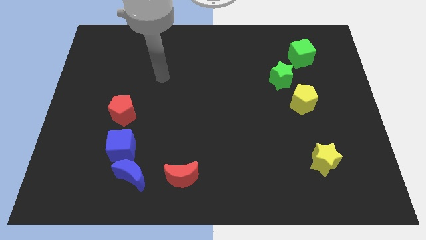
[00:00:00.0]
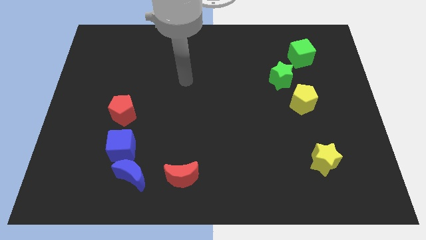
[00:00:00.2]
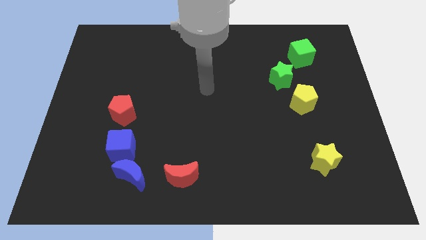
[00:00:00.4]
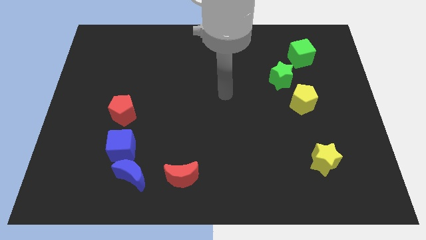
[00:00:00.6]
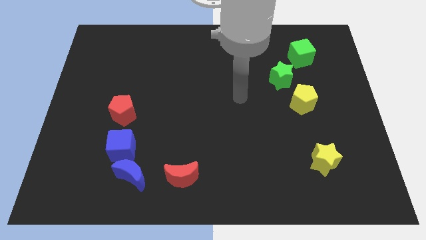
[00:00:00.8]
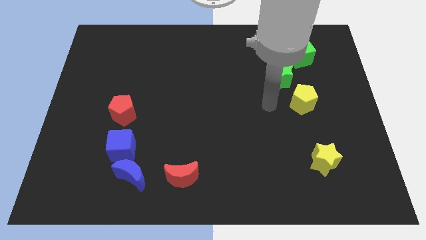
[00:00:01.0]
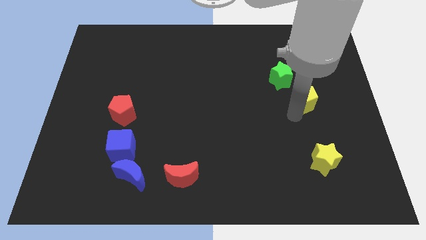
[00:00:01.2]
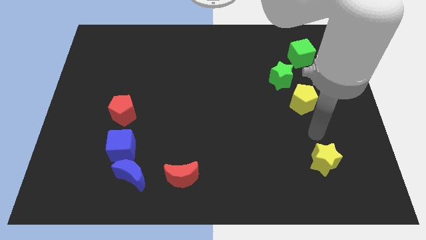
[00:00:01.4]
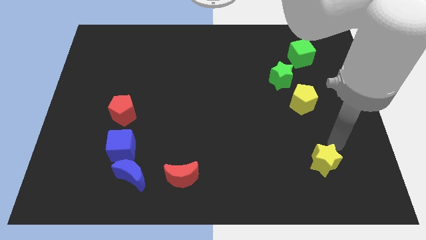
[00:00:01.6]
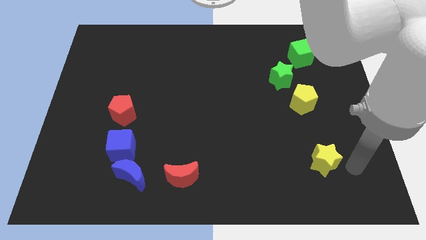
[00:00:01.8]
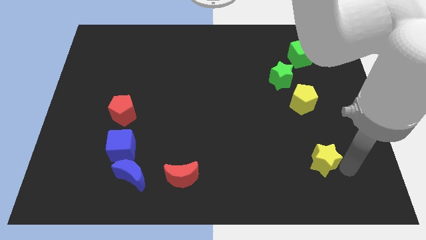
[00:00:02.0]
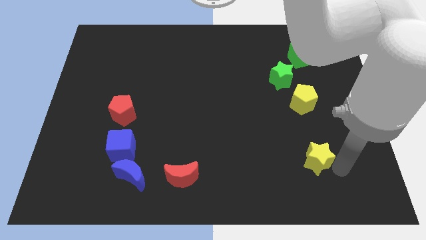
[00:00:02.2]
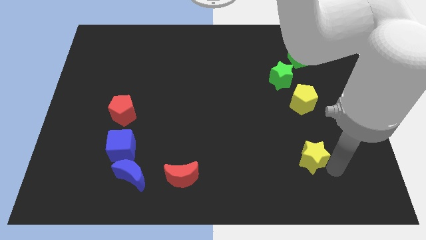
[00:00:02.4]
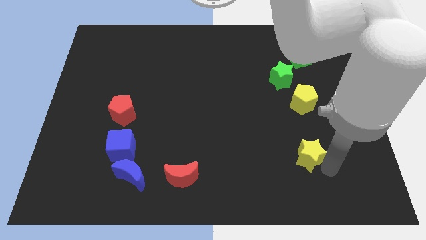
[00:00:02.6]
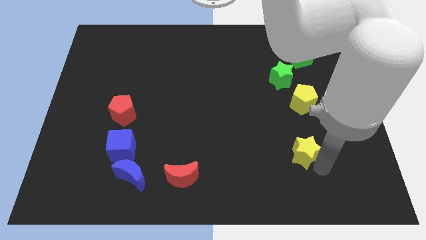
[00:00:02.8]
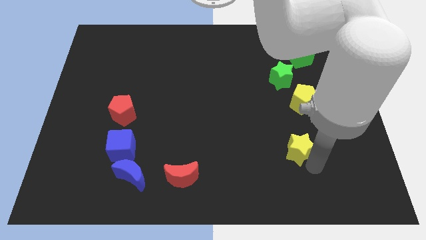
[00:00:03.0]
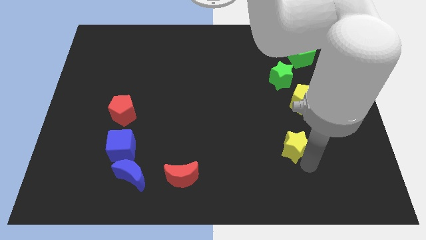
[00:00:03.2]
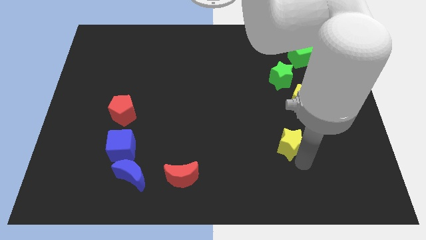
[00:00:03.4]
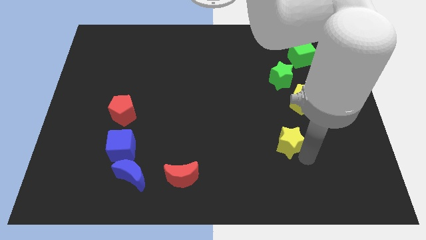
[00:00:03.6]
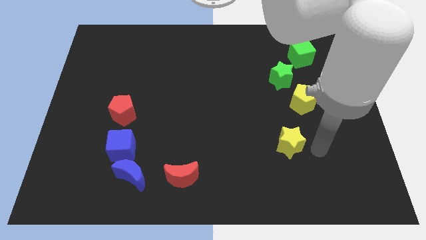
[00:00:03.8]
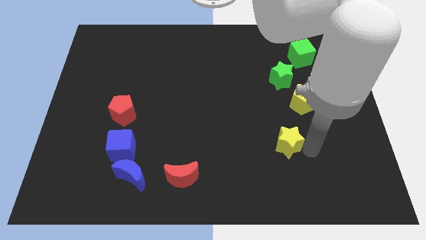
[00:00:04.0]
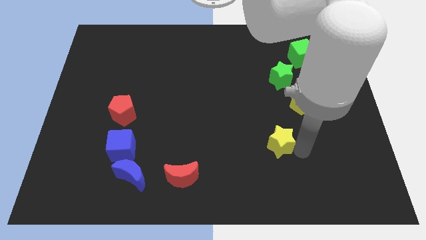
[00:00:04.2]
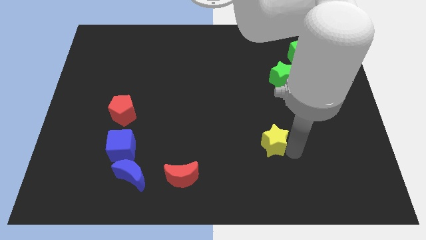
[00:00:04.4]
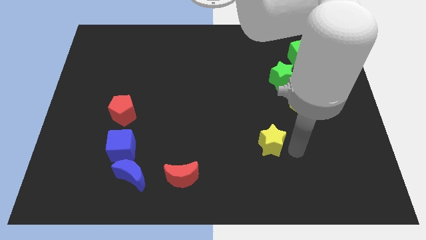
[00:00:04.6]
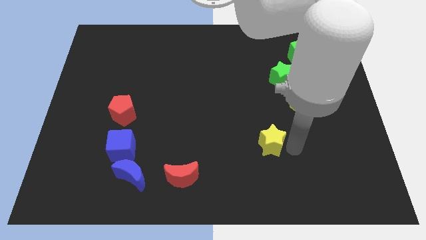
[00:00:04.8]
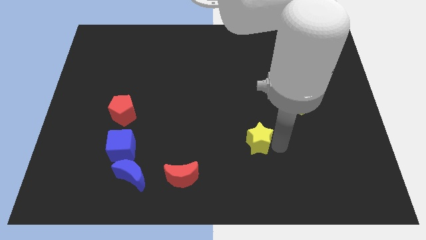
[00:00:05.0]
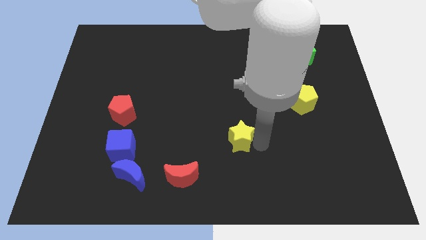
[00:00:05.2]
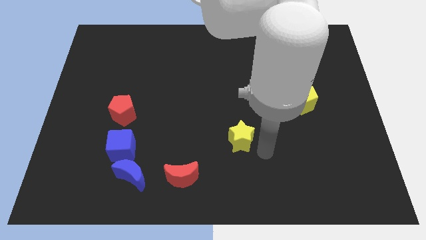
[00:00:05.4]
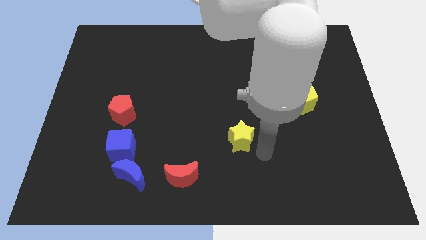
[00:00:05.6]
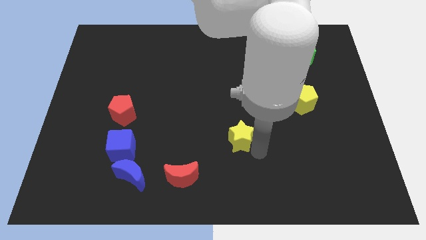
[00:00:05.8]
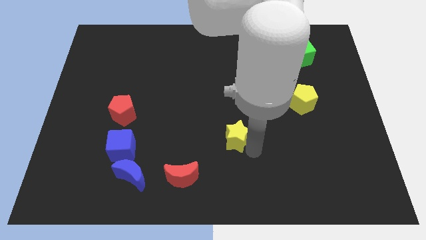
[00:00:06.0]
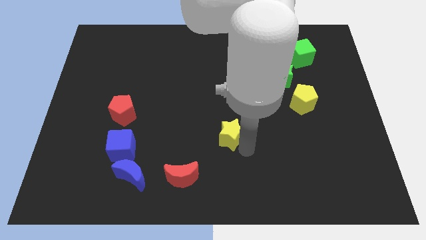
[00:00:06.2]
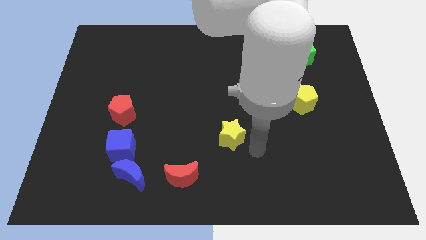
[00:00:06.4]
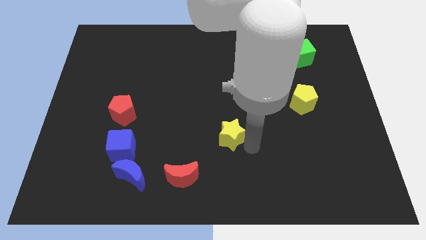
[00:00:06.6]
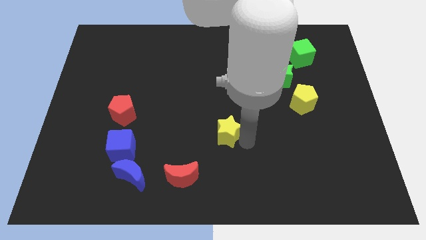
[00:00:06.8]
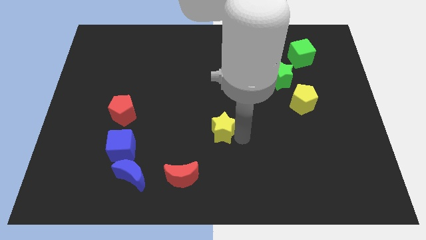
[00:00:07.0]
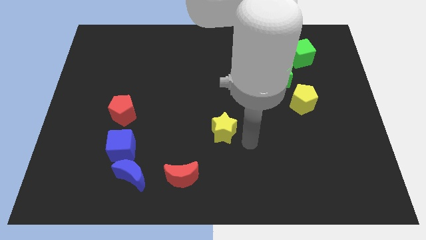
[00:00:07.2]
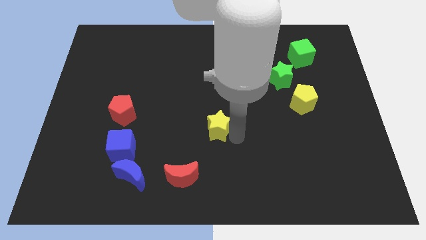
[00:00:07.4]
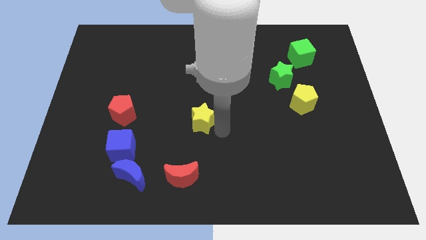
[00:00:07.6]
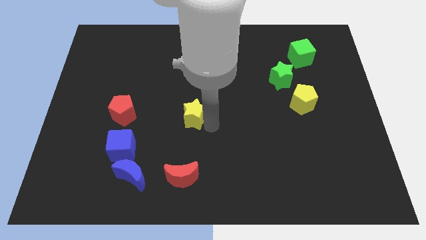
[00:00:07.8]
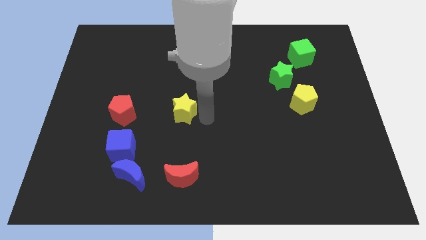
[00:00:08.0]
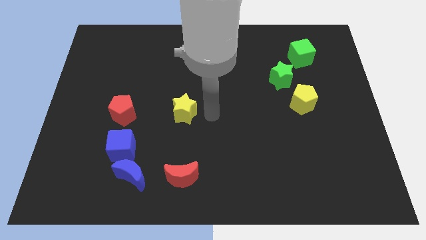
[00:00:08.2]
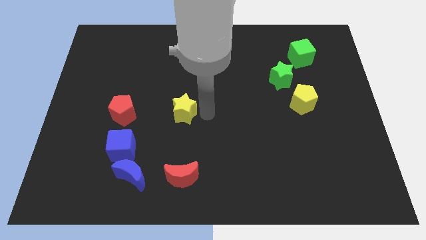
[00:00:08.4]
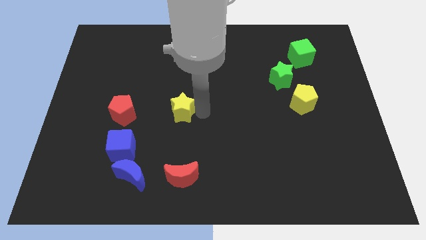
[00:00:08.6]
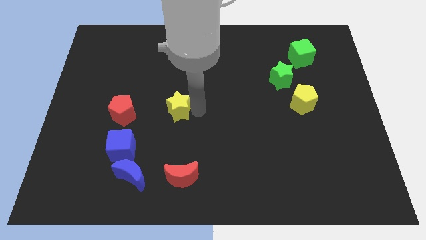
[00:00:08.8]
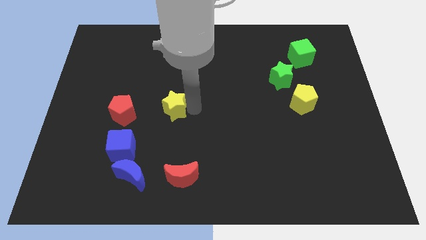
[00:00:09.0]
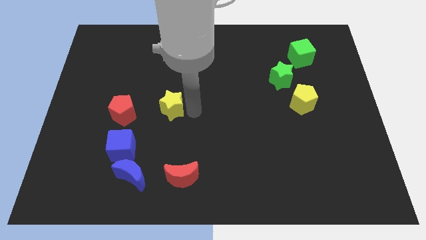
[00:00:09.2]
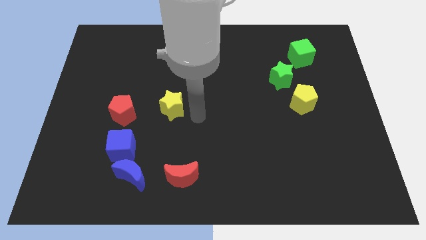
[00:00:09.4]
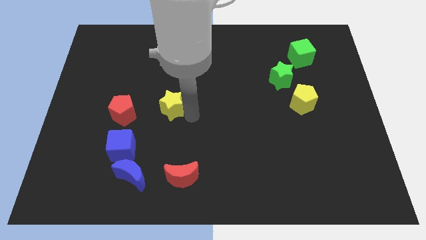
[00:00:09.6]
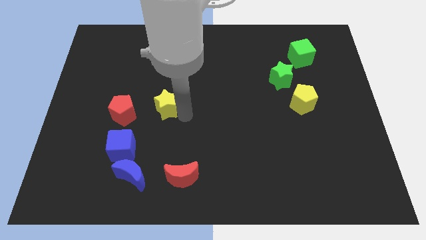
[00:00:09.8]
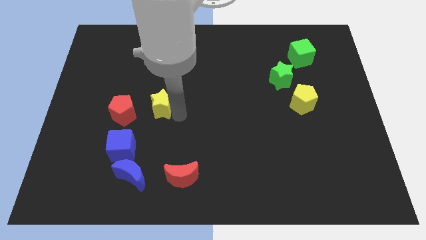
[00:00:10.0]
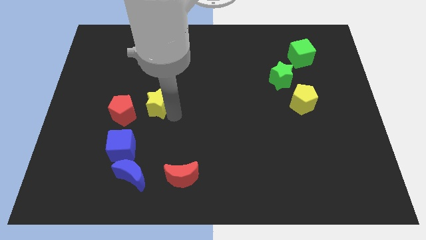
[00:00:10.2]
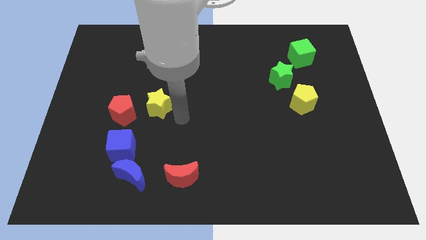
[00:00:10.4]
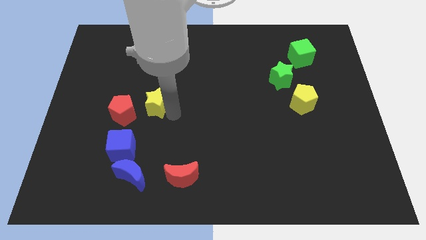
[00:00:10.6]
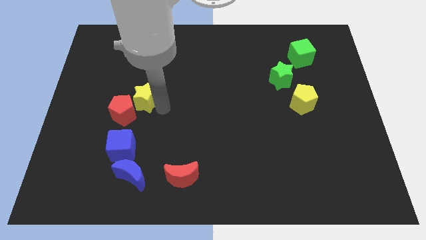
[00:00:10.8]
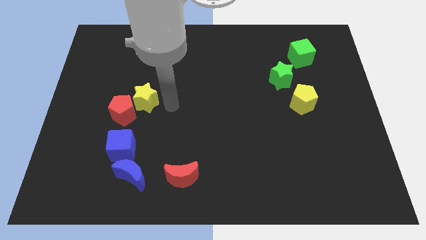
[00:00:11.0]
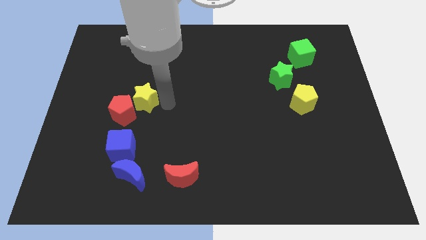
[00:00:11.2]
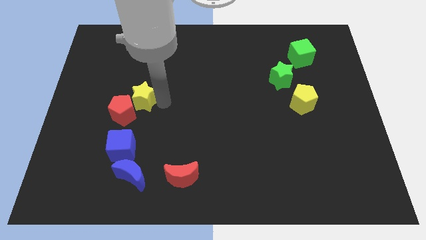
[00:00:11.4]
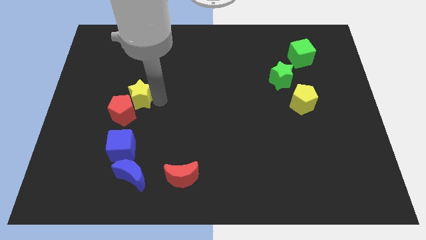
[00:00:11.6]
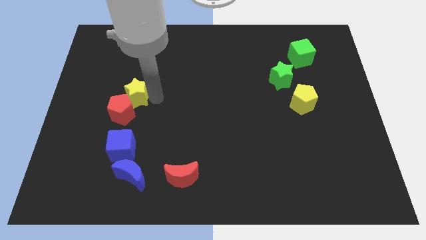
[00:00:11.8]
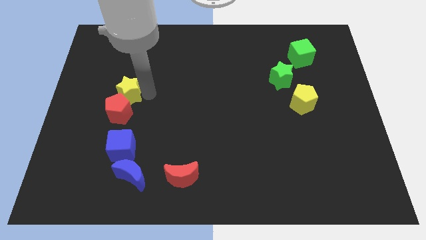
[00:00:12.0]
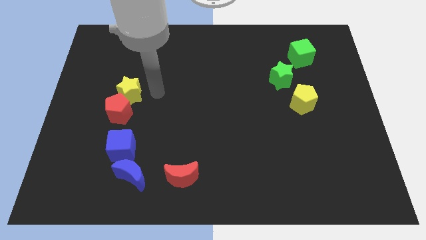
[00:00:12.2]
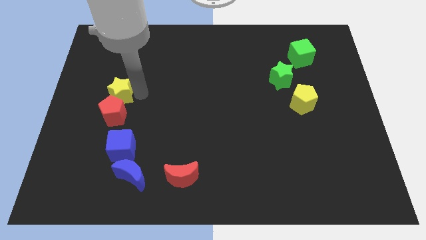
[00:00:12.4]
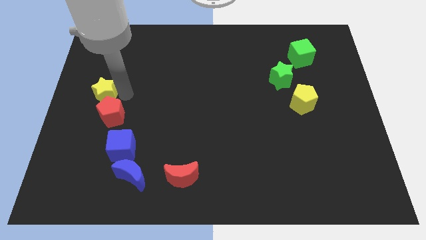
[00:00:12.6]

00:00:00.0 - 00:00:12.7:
put the yellow star to the center left
